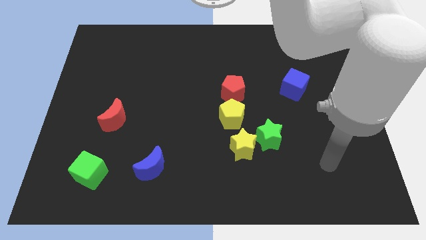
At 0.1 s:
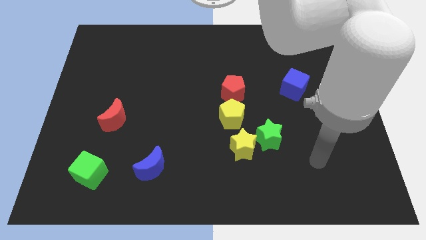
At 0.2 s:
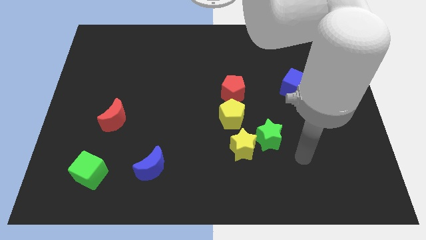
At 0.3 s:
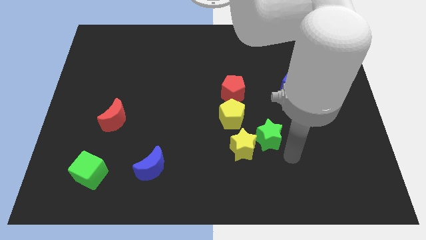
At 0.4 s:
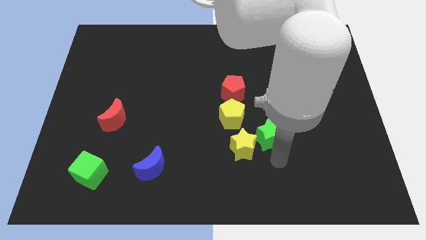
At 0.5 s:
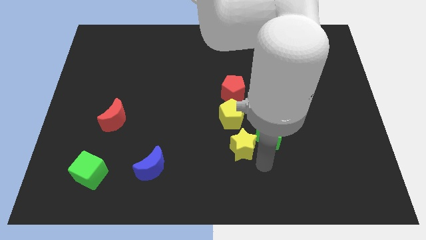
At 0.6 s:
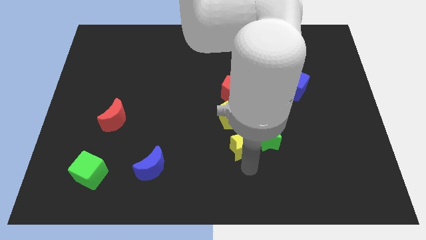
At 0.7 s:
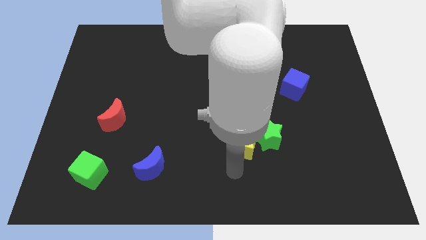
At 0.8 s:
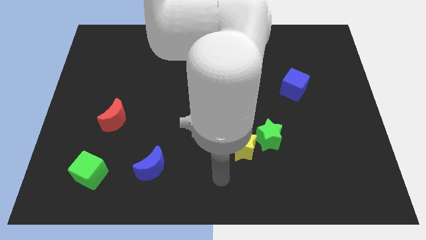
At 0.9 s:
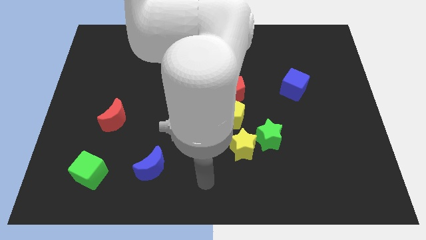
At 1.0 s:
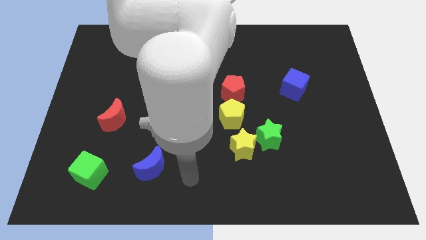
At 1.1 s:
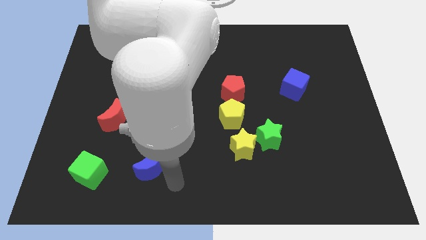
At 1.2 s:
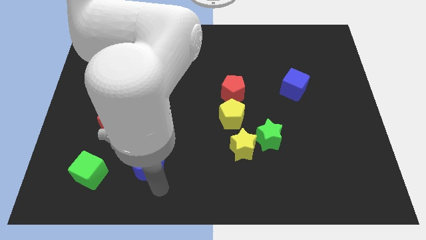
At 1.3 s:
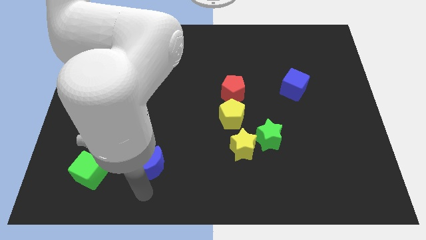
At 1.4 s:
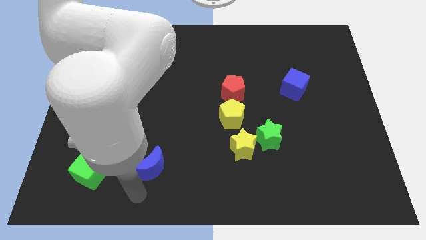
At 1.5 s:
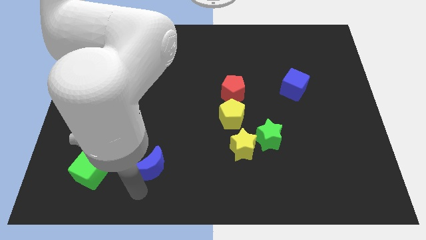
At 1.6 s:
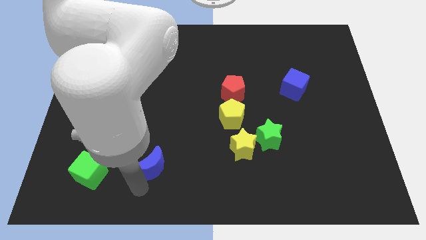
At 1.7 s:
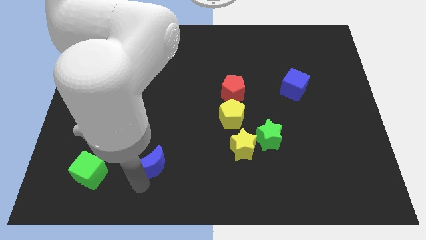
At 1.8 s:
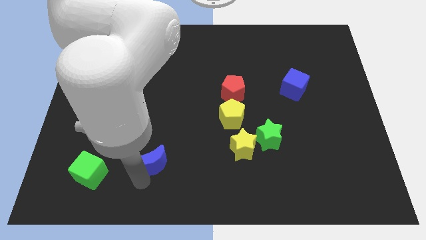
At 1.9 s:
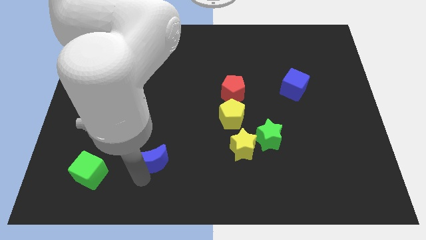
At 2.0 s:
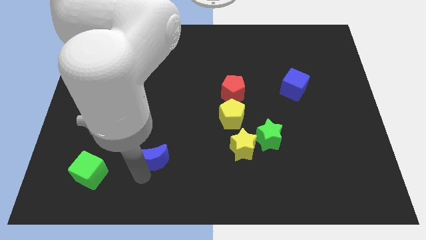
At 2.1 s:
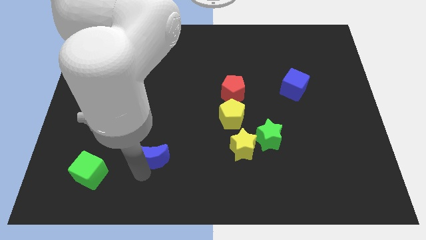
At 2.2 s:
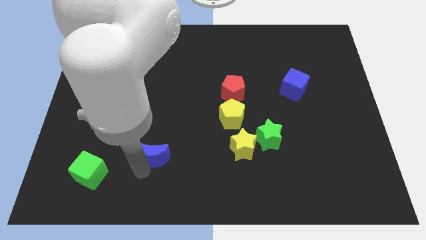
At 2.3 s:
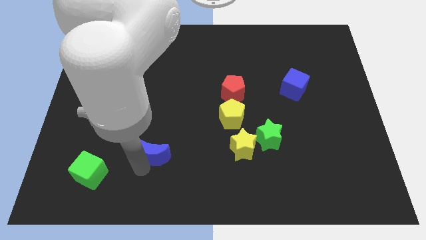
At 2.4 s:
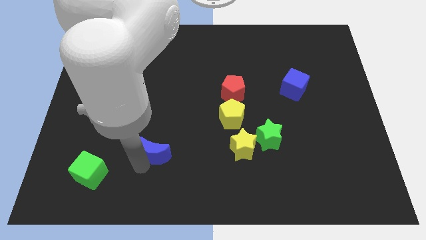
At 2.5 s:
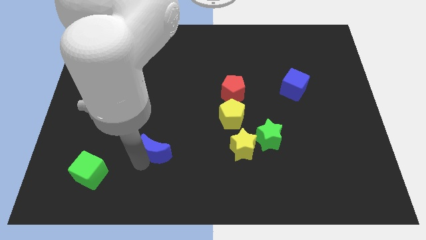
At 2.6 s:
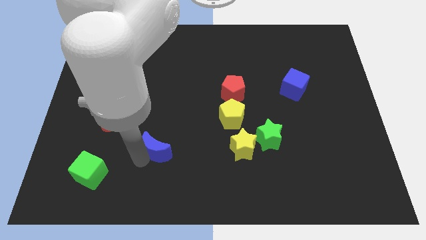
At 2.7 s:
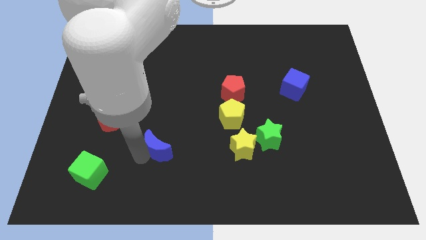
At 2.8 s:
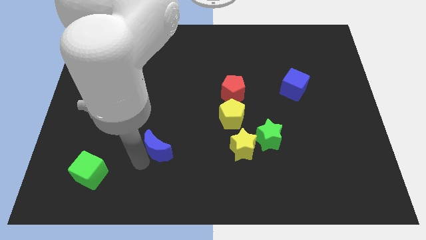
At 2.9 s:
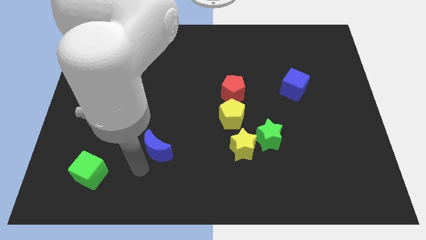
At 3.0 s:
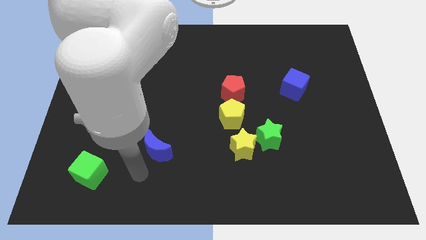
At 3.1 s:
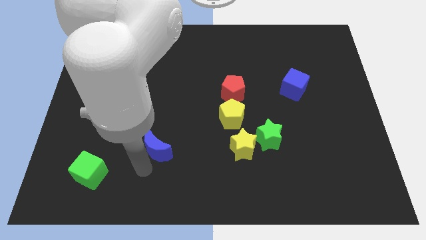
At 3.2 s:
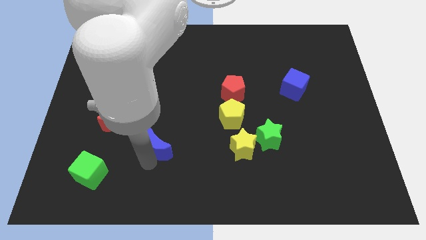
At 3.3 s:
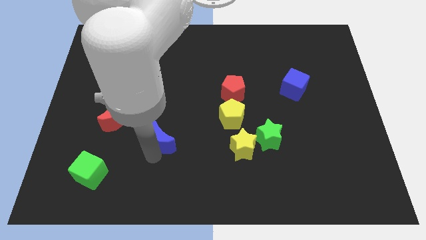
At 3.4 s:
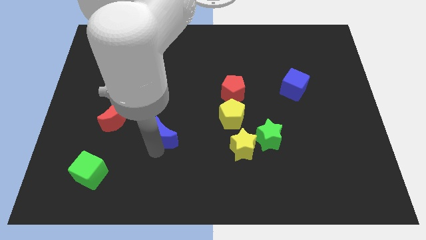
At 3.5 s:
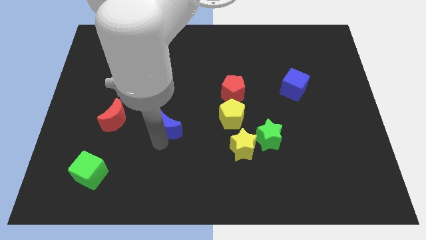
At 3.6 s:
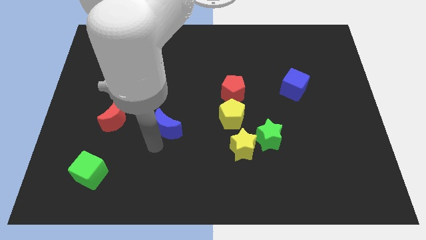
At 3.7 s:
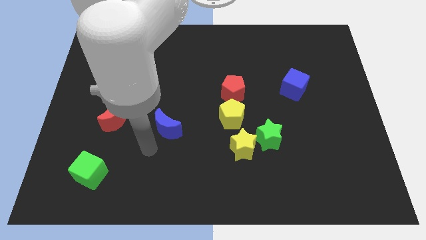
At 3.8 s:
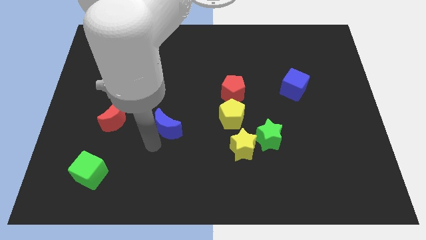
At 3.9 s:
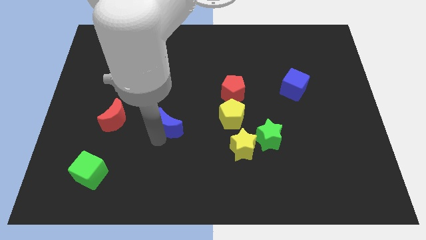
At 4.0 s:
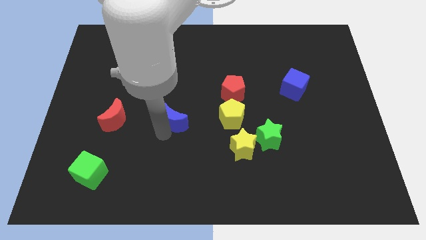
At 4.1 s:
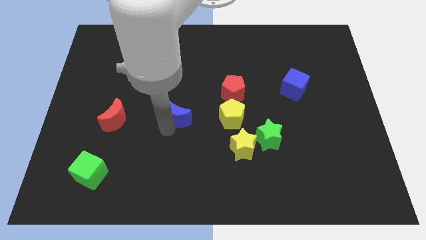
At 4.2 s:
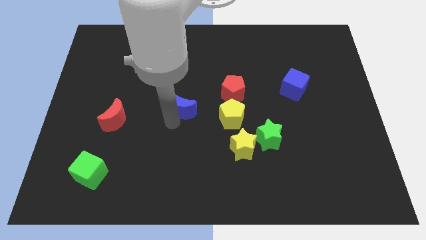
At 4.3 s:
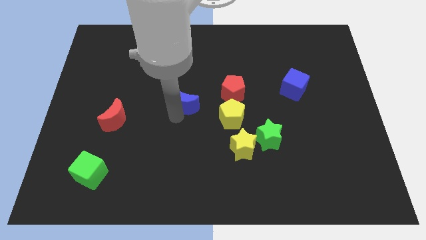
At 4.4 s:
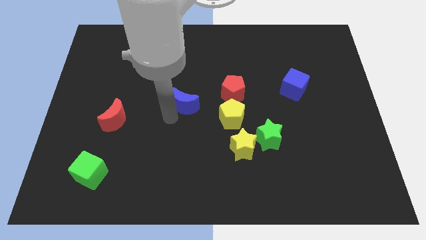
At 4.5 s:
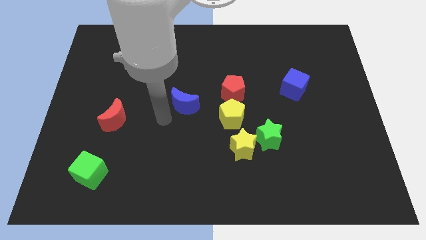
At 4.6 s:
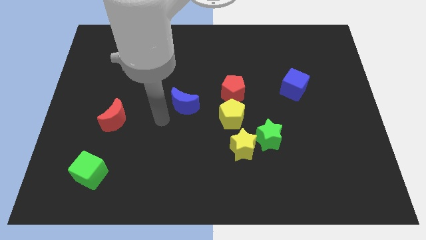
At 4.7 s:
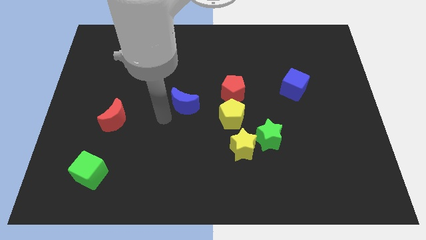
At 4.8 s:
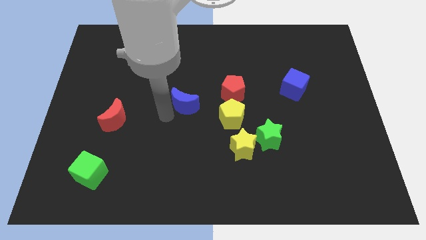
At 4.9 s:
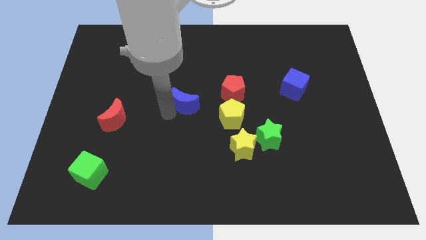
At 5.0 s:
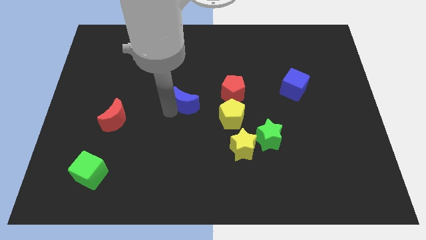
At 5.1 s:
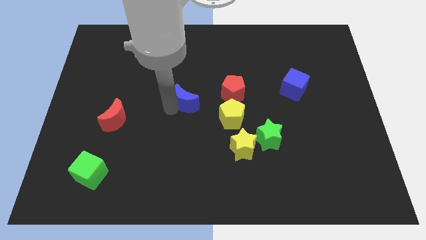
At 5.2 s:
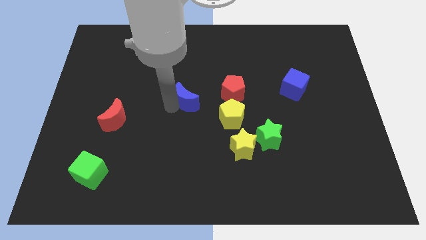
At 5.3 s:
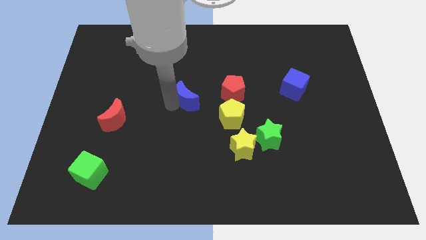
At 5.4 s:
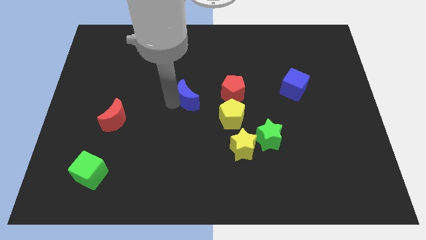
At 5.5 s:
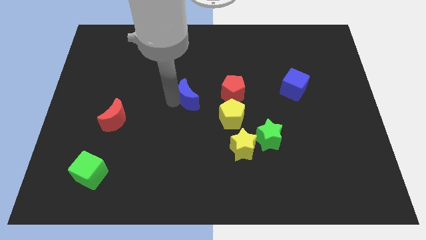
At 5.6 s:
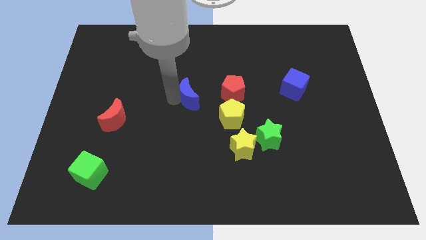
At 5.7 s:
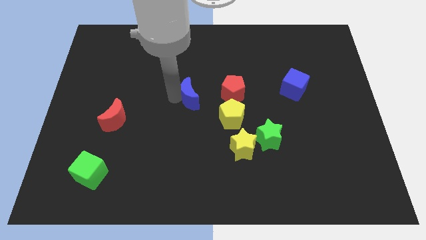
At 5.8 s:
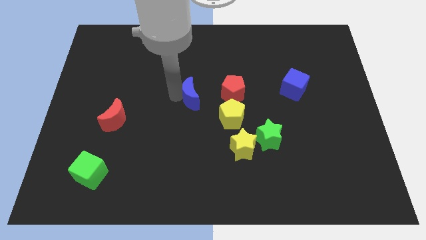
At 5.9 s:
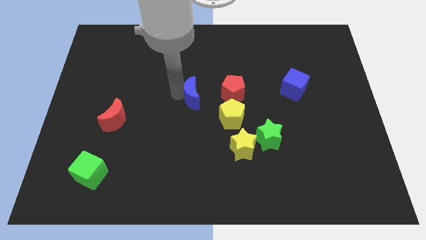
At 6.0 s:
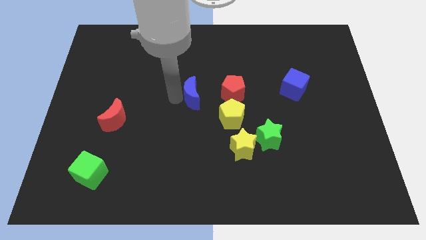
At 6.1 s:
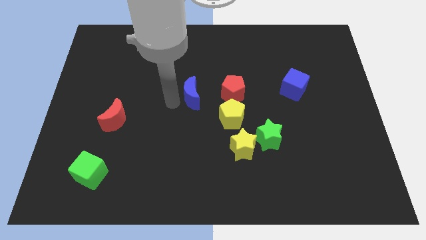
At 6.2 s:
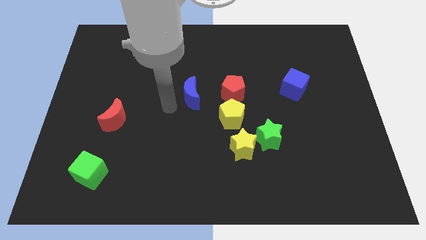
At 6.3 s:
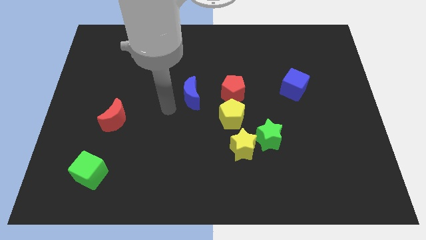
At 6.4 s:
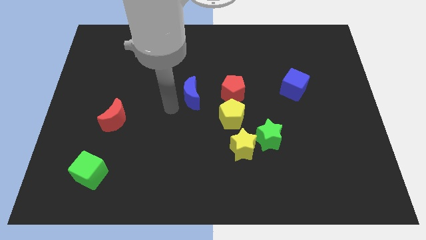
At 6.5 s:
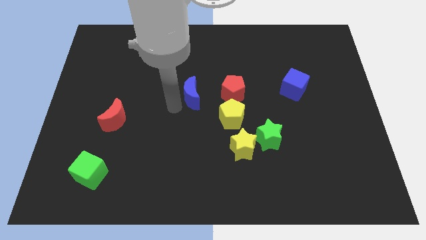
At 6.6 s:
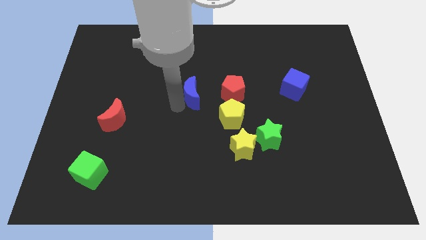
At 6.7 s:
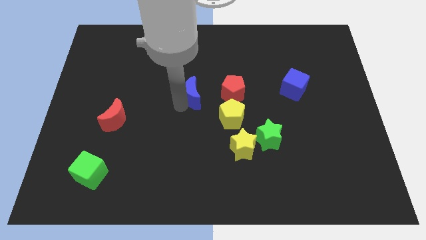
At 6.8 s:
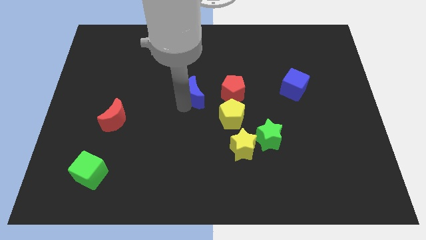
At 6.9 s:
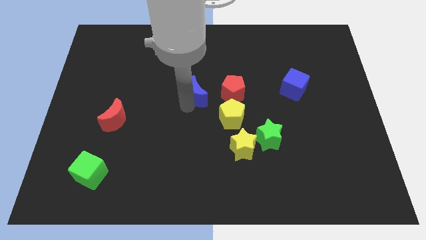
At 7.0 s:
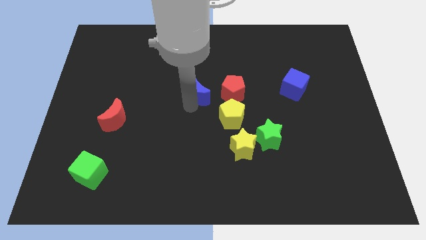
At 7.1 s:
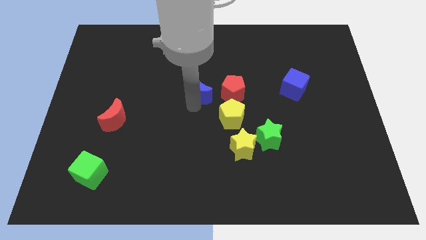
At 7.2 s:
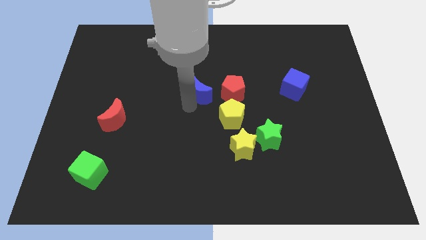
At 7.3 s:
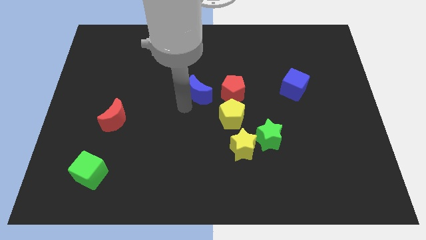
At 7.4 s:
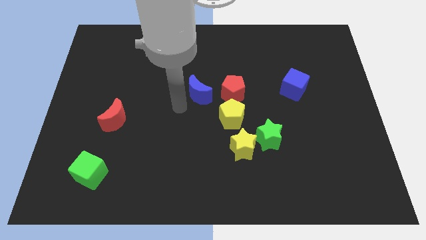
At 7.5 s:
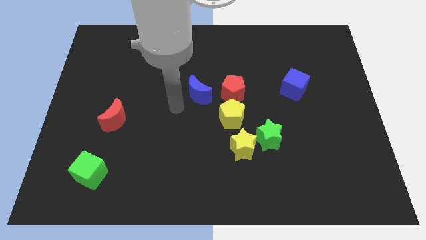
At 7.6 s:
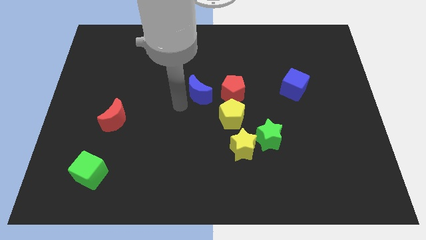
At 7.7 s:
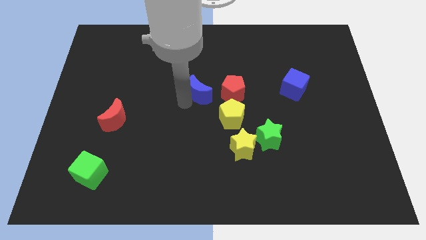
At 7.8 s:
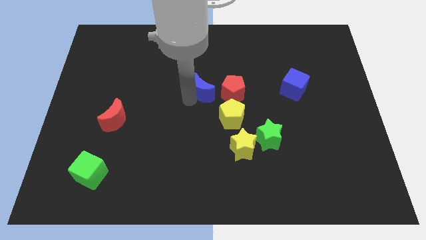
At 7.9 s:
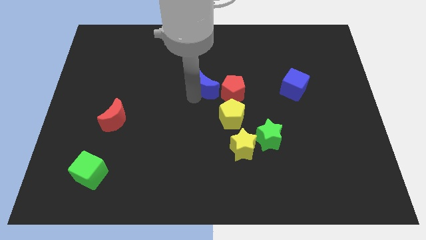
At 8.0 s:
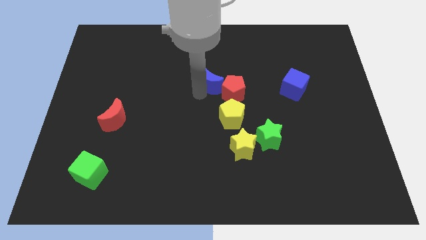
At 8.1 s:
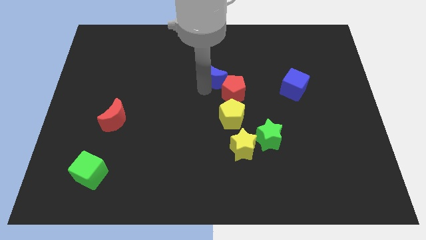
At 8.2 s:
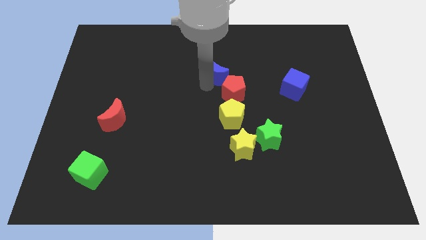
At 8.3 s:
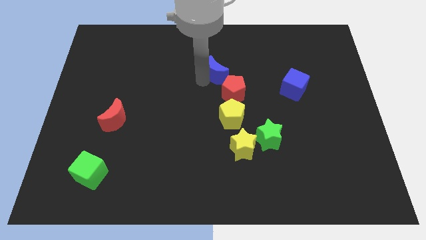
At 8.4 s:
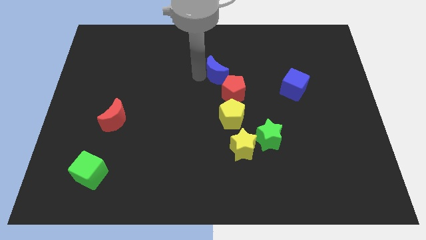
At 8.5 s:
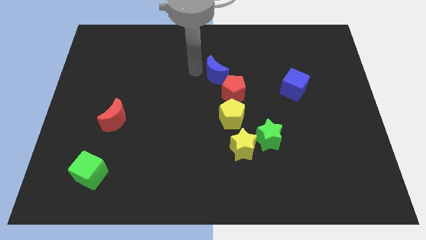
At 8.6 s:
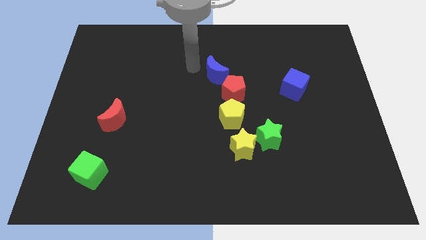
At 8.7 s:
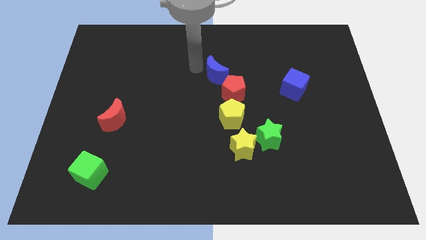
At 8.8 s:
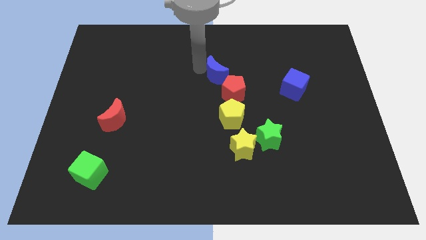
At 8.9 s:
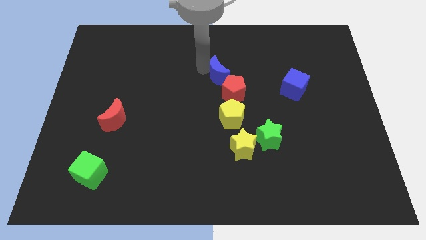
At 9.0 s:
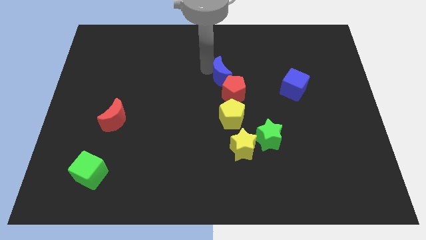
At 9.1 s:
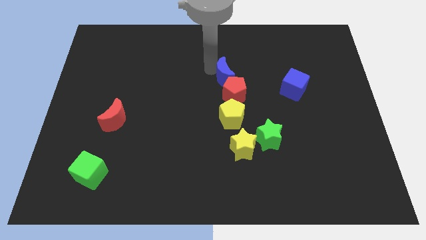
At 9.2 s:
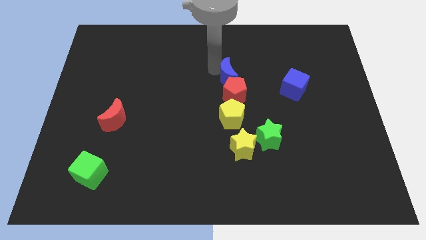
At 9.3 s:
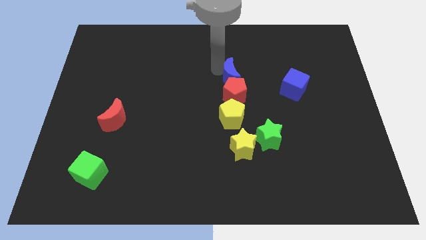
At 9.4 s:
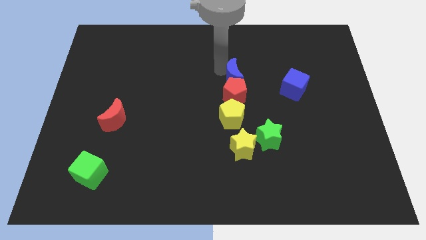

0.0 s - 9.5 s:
push the blue moon to the left of the blue cube
